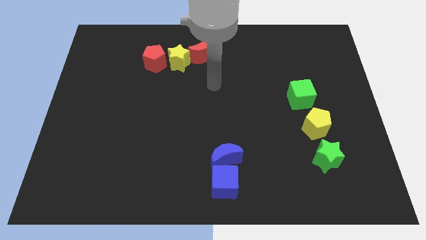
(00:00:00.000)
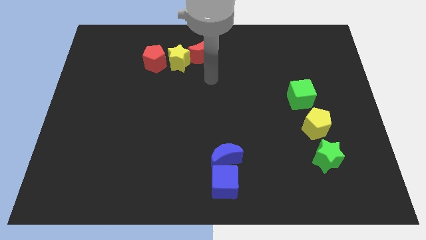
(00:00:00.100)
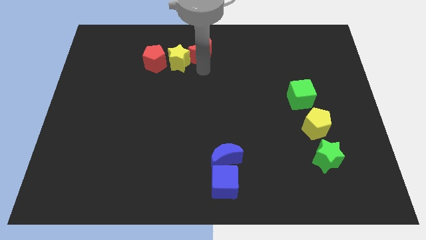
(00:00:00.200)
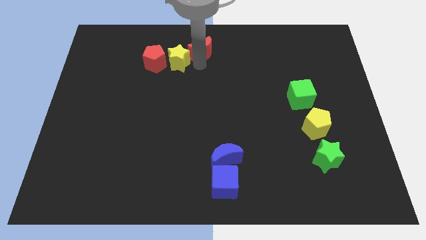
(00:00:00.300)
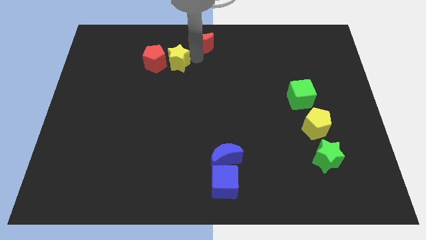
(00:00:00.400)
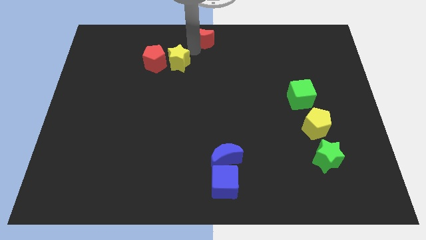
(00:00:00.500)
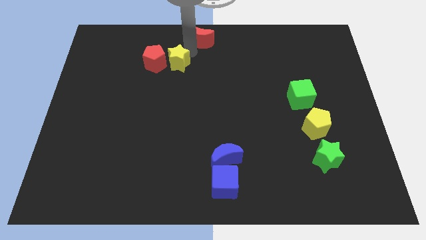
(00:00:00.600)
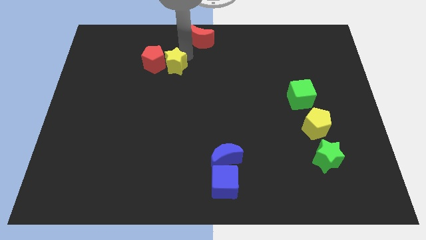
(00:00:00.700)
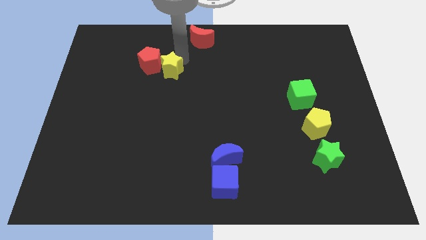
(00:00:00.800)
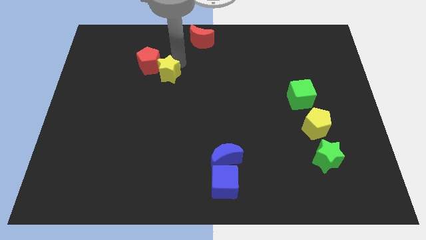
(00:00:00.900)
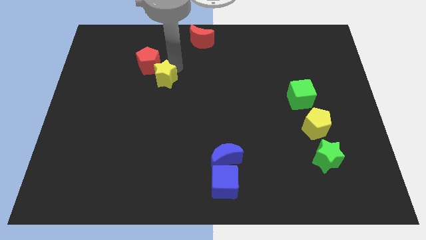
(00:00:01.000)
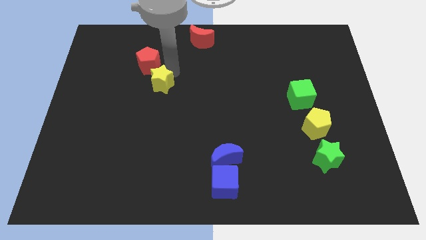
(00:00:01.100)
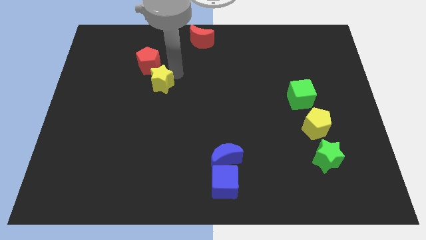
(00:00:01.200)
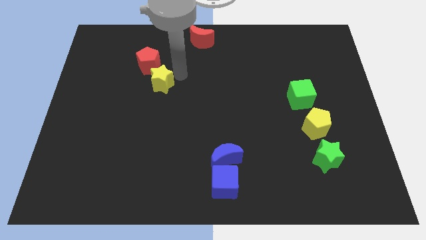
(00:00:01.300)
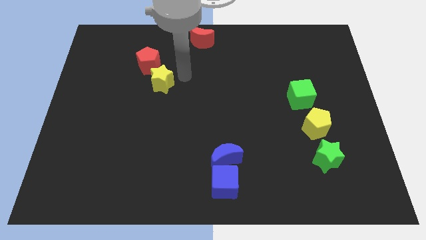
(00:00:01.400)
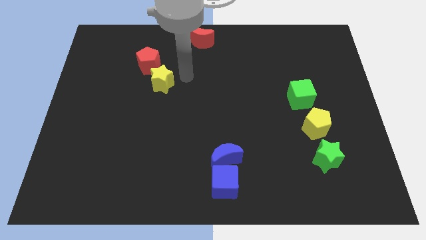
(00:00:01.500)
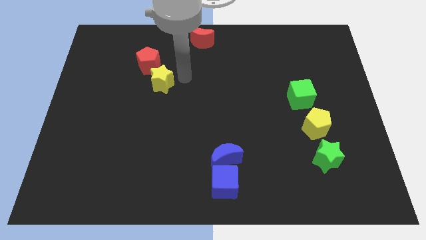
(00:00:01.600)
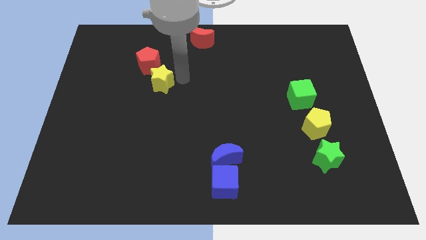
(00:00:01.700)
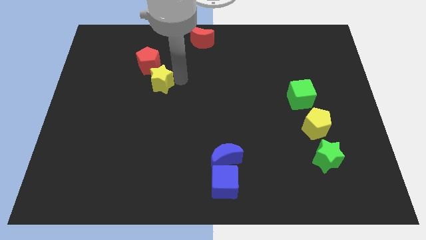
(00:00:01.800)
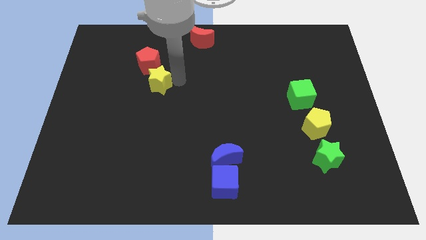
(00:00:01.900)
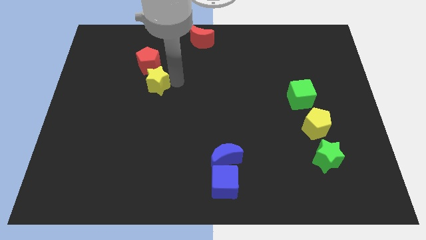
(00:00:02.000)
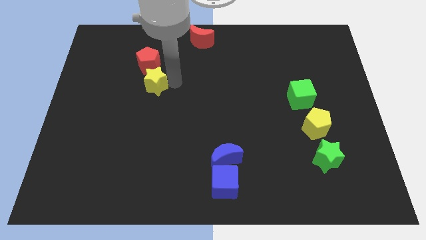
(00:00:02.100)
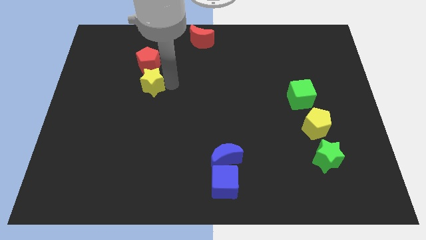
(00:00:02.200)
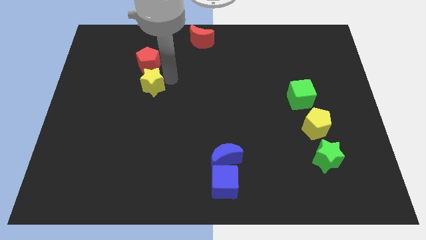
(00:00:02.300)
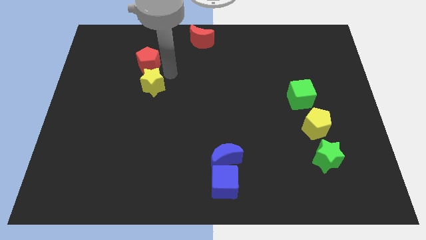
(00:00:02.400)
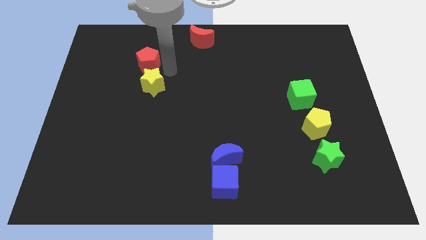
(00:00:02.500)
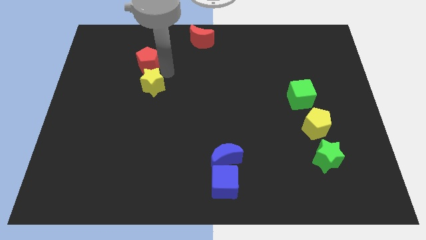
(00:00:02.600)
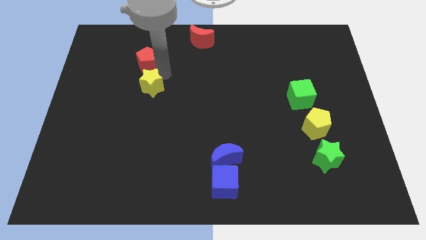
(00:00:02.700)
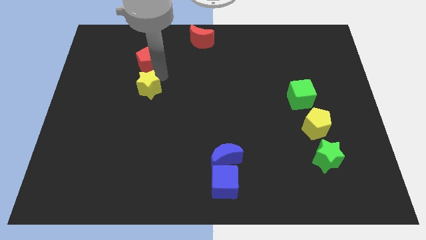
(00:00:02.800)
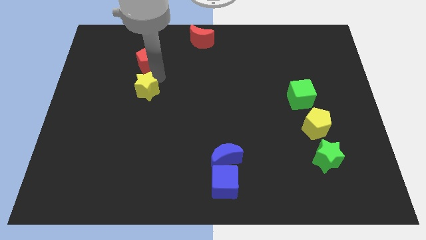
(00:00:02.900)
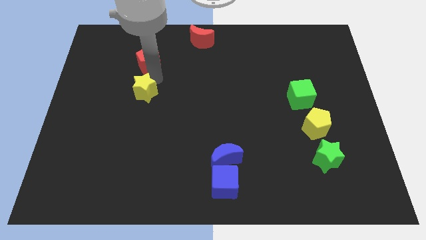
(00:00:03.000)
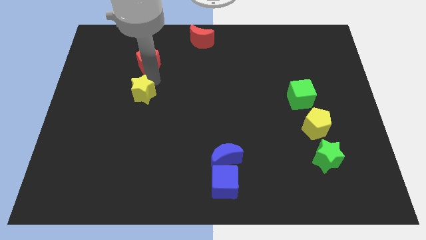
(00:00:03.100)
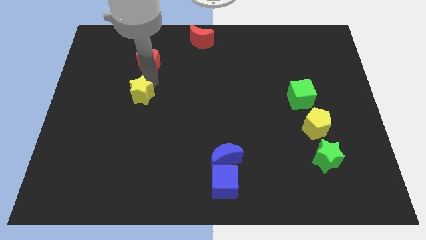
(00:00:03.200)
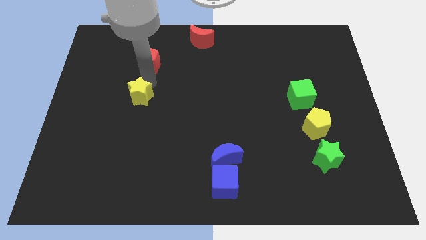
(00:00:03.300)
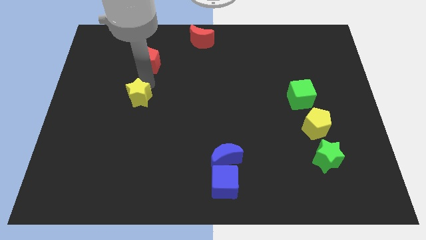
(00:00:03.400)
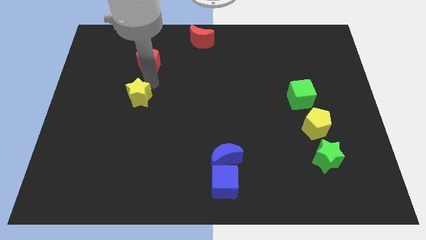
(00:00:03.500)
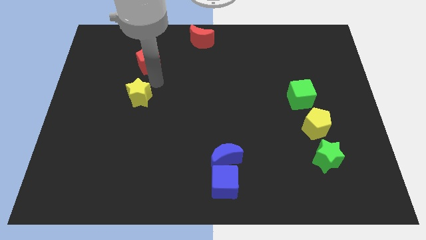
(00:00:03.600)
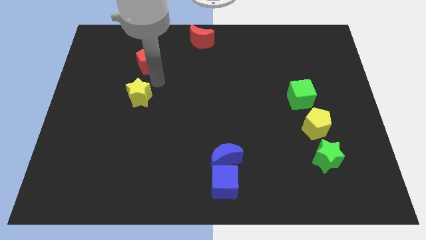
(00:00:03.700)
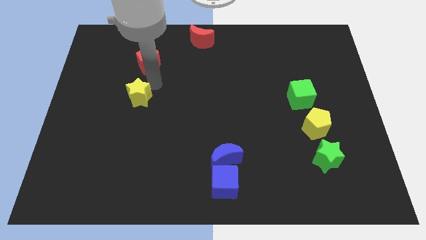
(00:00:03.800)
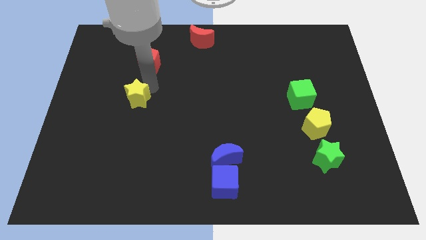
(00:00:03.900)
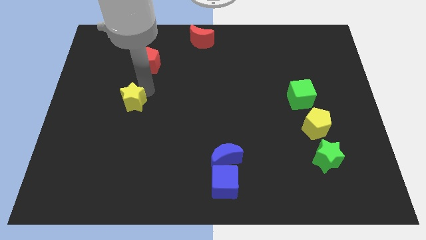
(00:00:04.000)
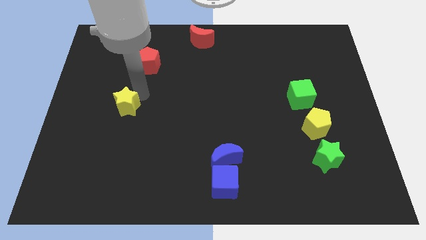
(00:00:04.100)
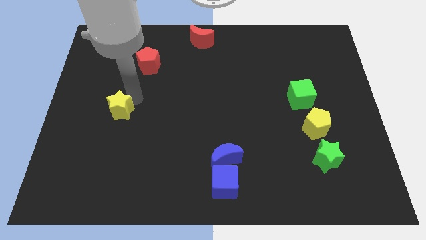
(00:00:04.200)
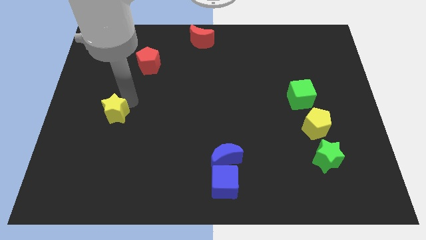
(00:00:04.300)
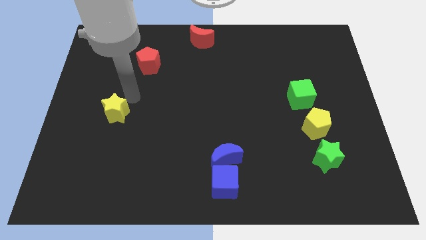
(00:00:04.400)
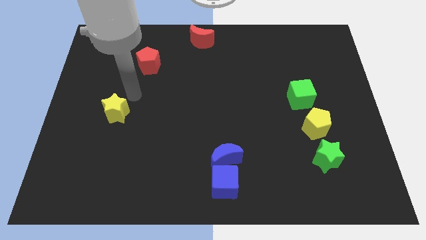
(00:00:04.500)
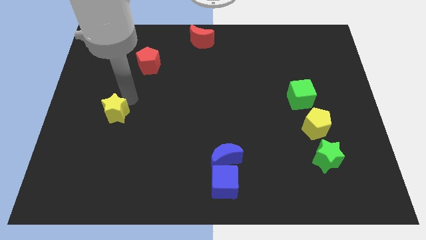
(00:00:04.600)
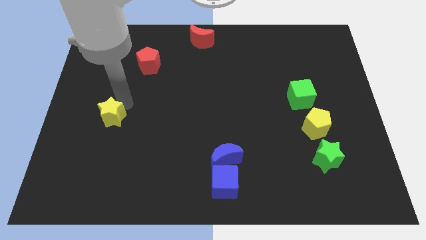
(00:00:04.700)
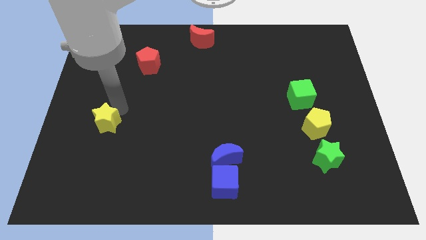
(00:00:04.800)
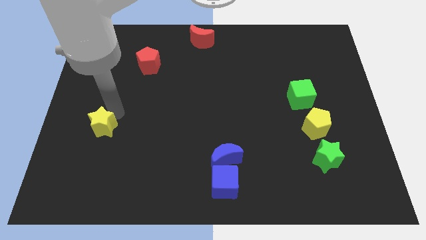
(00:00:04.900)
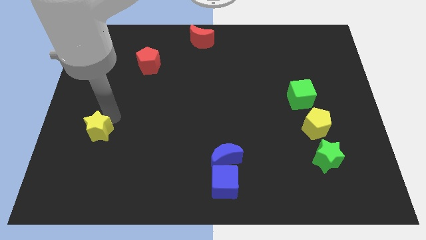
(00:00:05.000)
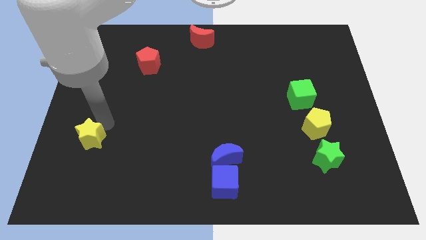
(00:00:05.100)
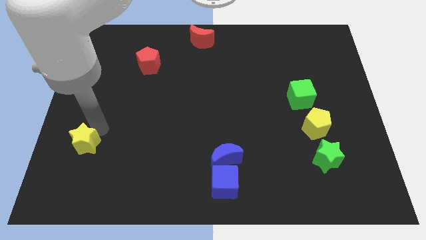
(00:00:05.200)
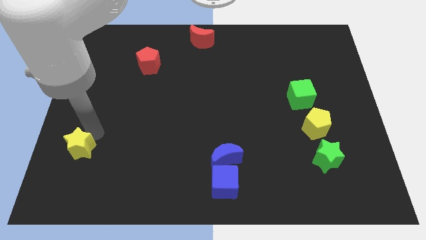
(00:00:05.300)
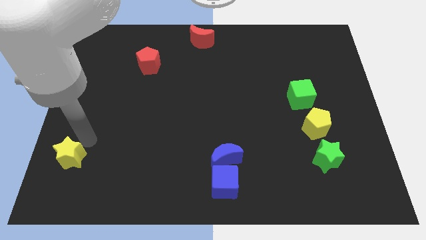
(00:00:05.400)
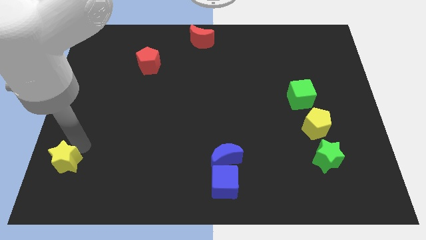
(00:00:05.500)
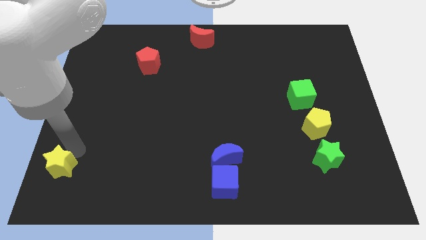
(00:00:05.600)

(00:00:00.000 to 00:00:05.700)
slide the yellow star to the bottom left corner

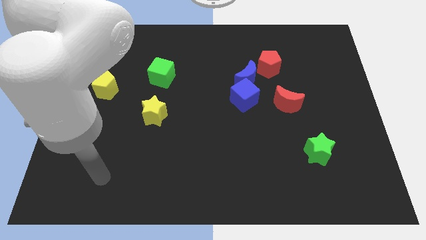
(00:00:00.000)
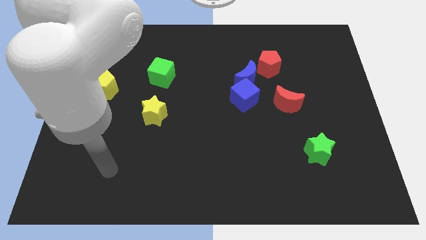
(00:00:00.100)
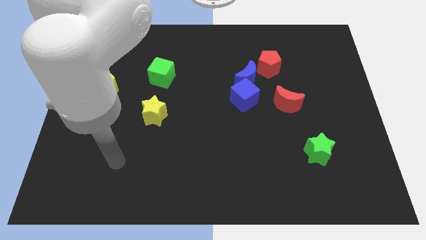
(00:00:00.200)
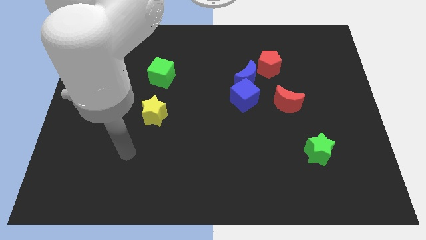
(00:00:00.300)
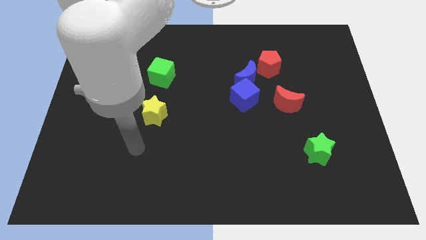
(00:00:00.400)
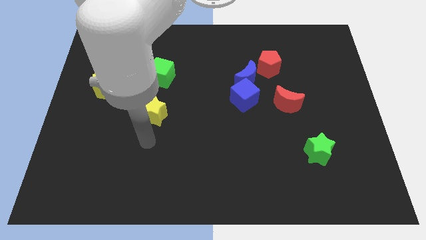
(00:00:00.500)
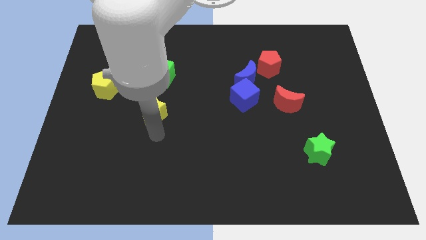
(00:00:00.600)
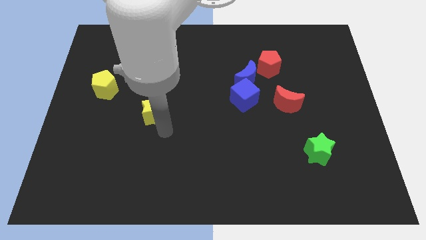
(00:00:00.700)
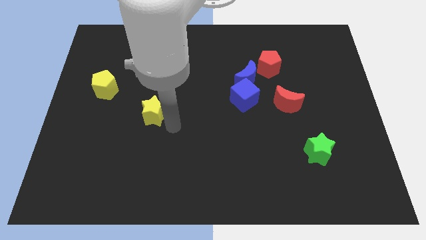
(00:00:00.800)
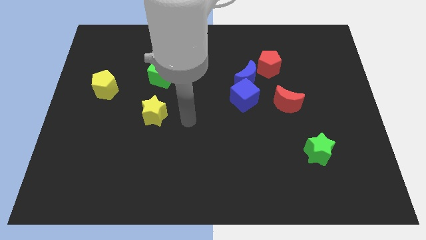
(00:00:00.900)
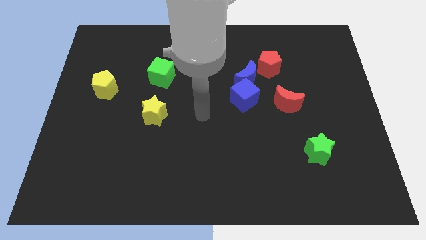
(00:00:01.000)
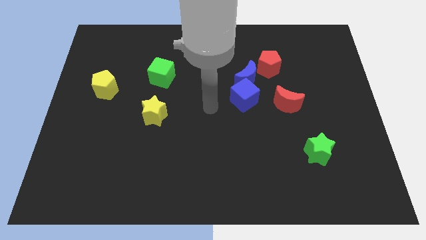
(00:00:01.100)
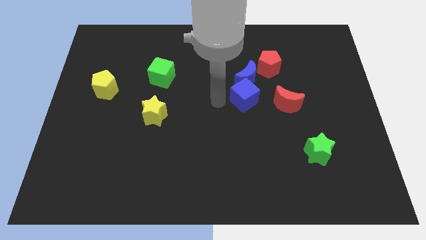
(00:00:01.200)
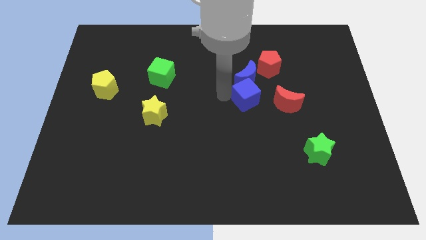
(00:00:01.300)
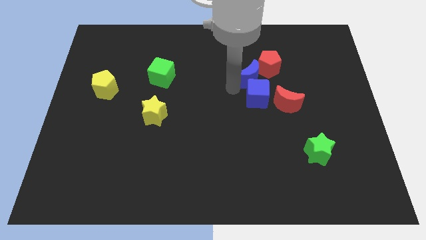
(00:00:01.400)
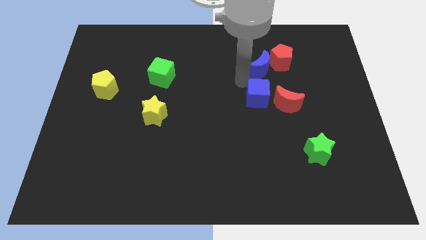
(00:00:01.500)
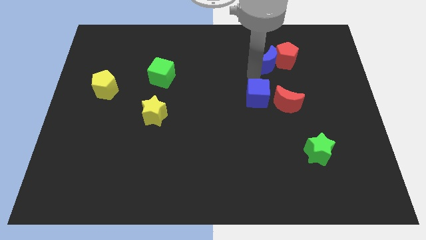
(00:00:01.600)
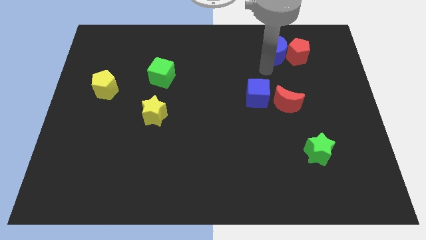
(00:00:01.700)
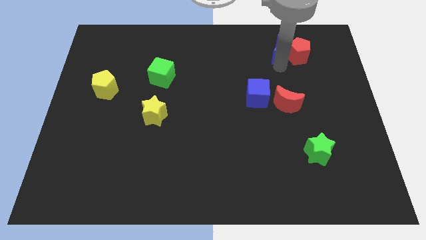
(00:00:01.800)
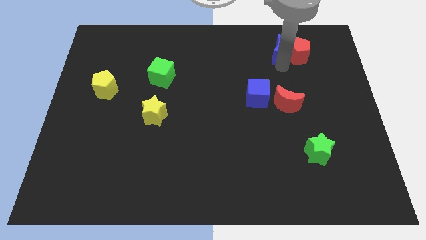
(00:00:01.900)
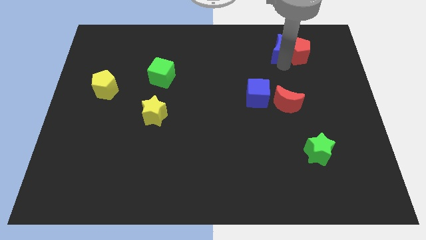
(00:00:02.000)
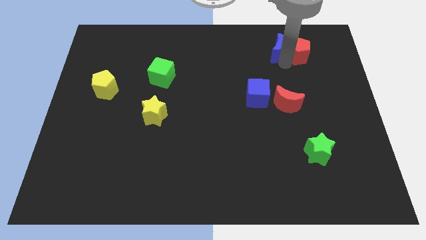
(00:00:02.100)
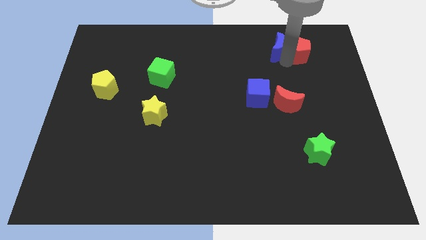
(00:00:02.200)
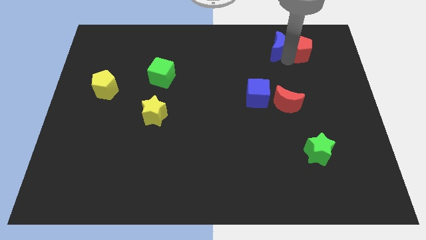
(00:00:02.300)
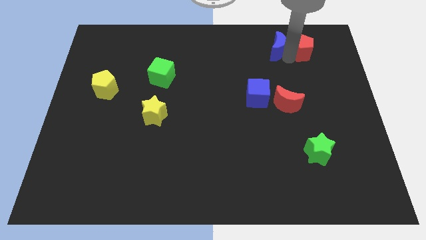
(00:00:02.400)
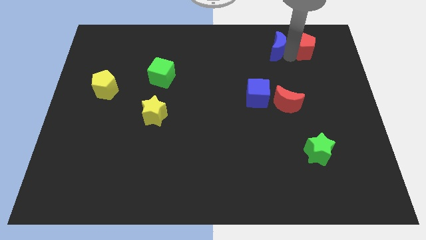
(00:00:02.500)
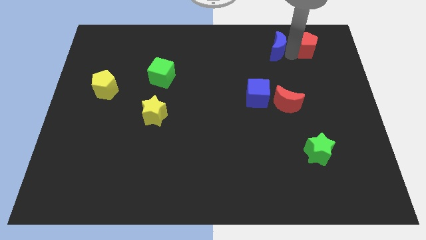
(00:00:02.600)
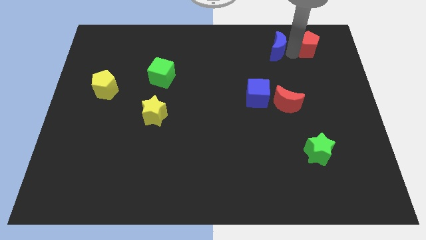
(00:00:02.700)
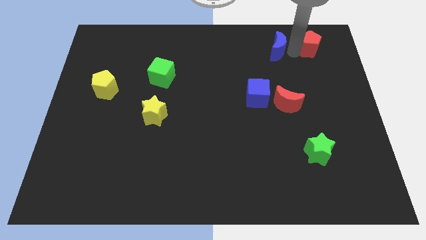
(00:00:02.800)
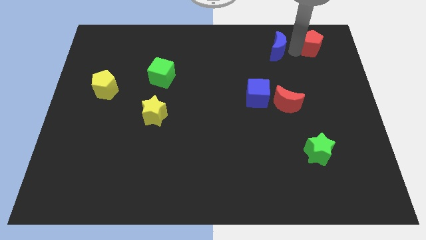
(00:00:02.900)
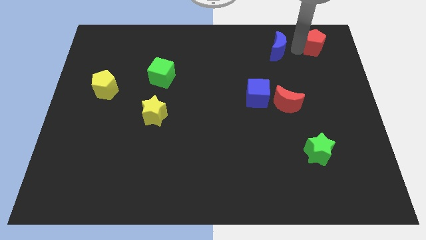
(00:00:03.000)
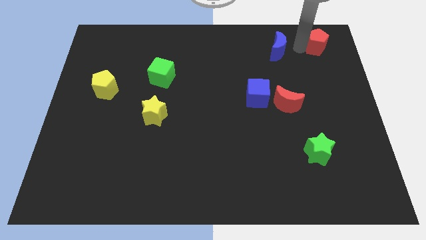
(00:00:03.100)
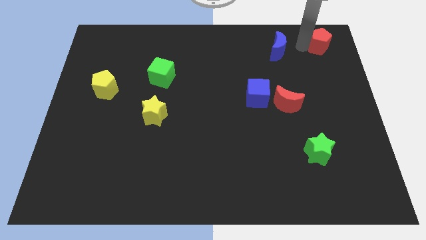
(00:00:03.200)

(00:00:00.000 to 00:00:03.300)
put the red pentagon to the top right corner
